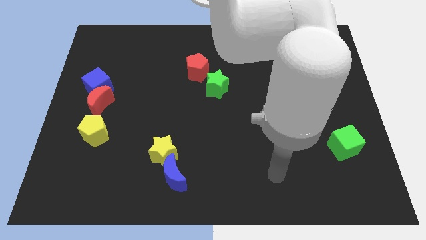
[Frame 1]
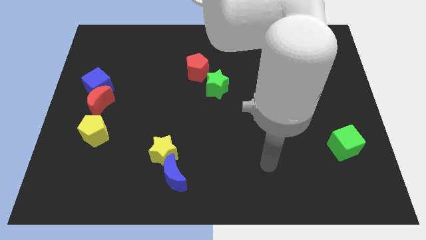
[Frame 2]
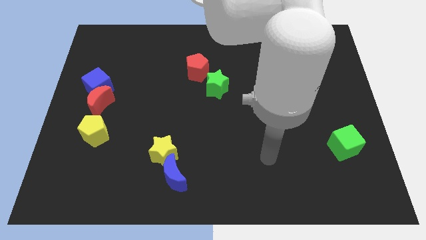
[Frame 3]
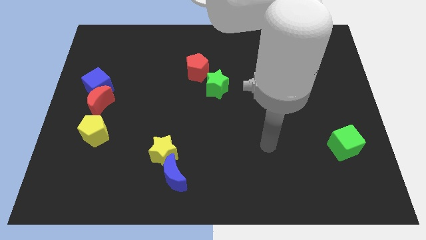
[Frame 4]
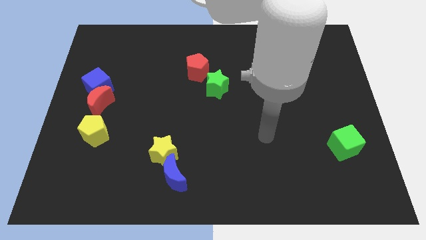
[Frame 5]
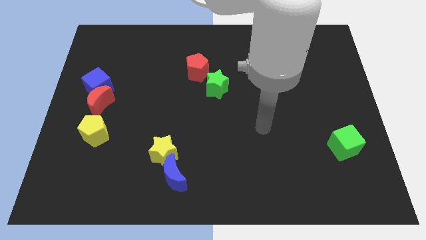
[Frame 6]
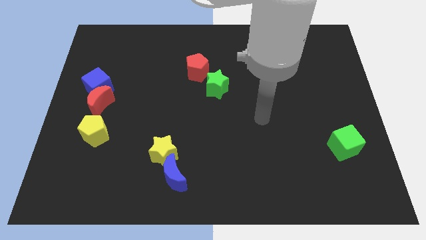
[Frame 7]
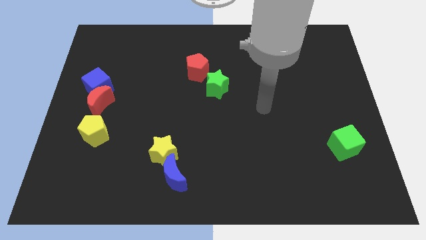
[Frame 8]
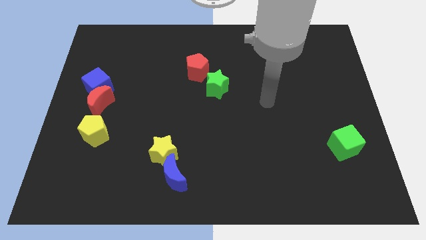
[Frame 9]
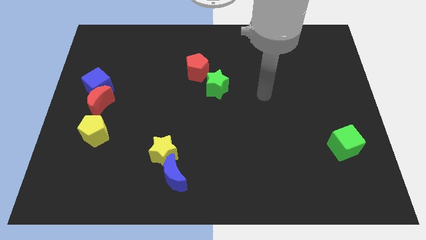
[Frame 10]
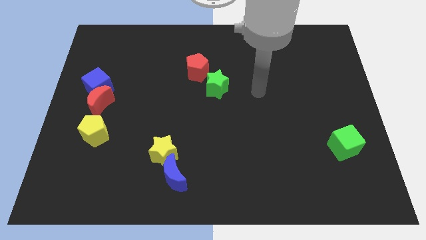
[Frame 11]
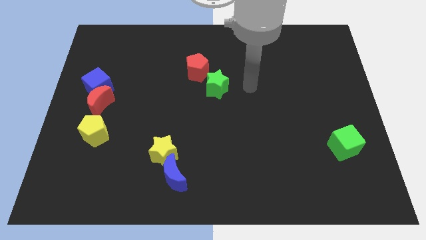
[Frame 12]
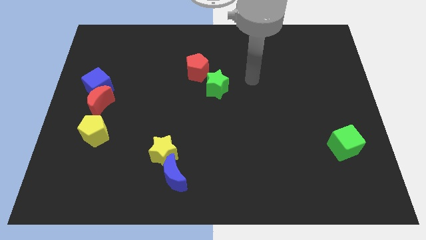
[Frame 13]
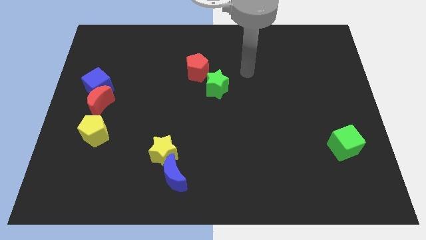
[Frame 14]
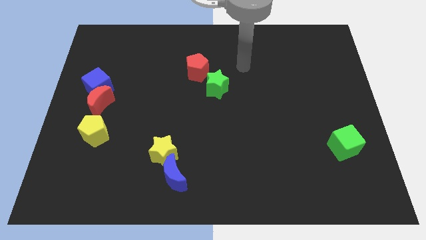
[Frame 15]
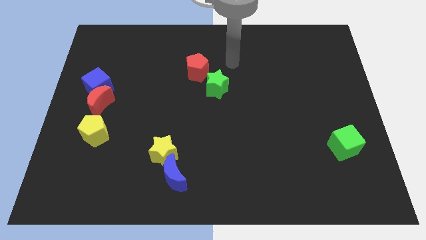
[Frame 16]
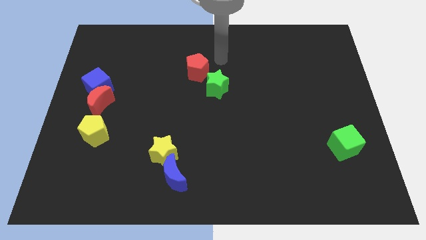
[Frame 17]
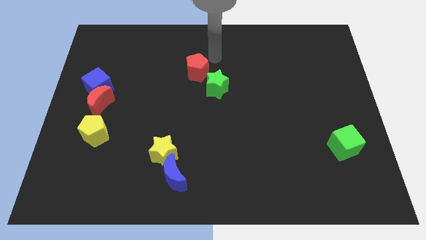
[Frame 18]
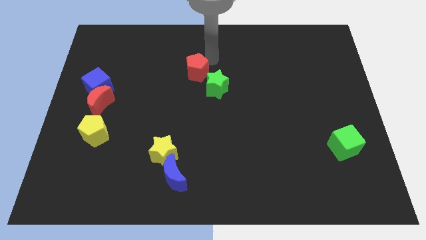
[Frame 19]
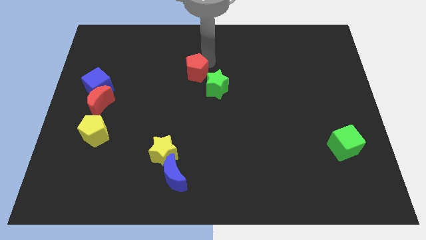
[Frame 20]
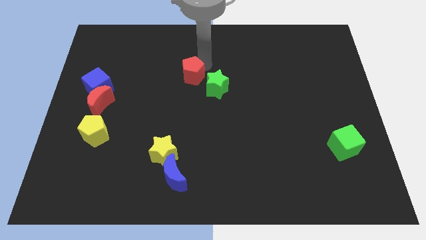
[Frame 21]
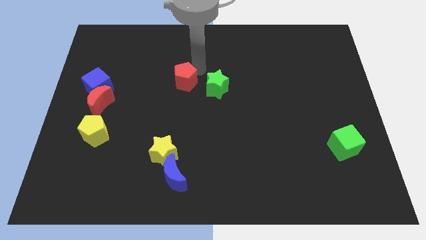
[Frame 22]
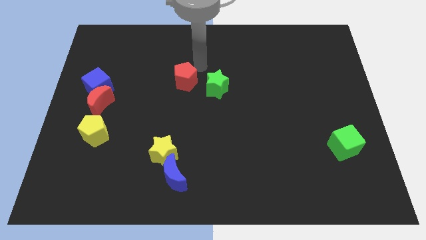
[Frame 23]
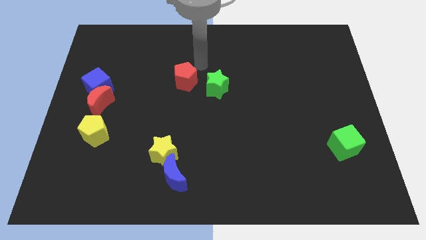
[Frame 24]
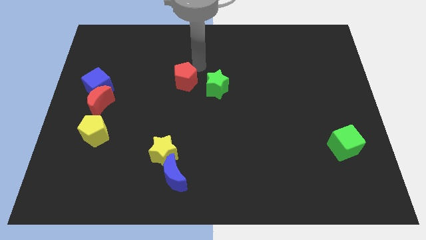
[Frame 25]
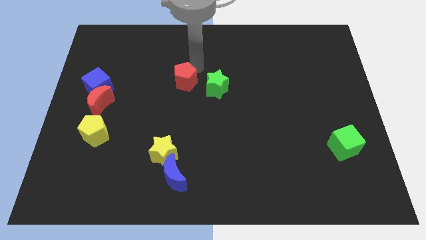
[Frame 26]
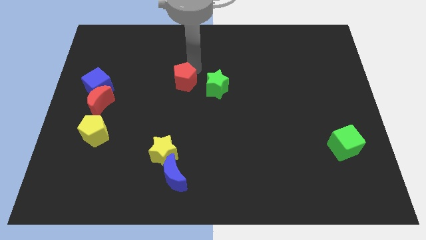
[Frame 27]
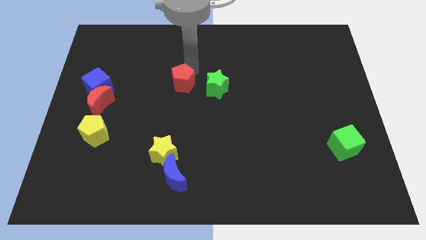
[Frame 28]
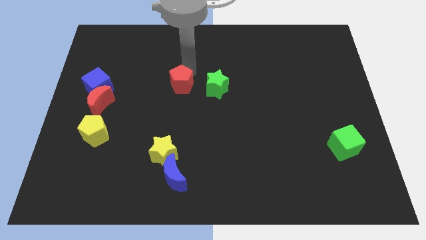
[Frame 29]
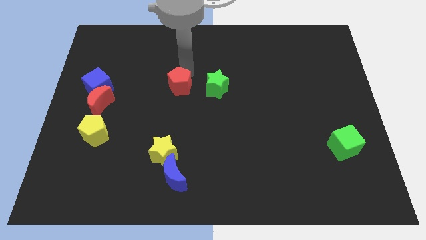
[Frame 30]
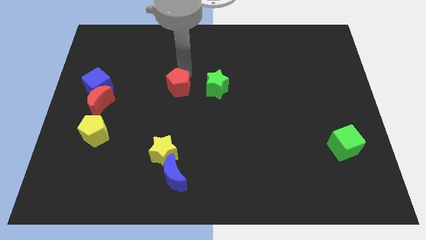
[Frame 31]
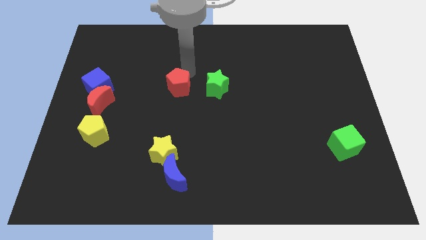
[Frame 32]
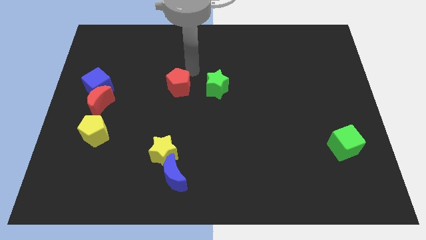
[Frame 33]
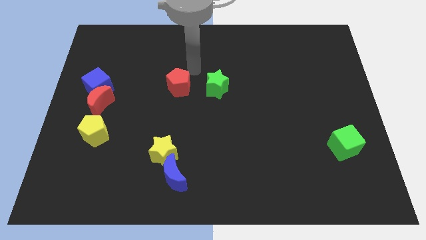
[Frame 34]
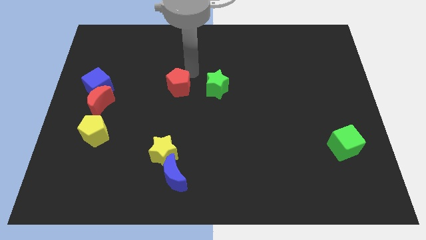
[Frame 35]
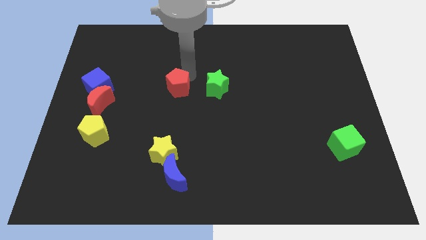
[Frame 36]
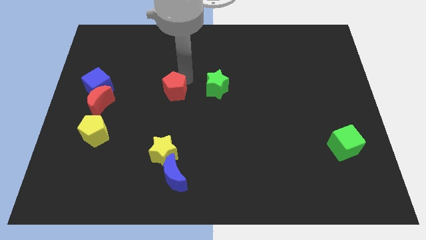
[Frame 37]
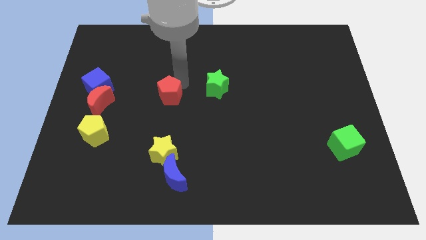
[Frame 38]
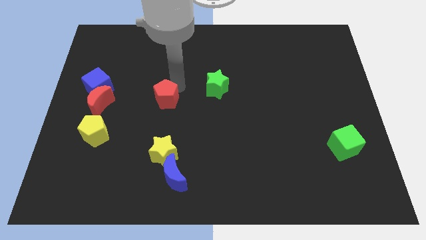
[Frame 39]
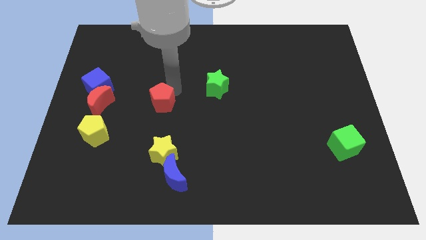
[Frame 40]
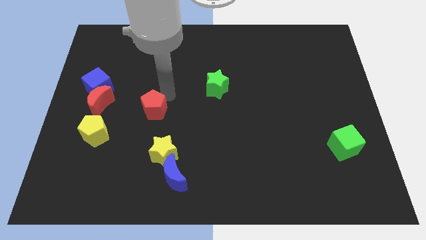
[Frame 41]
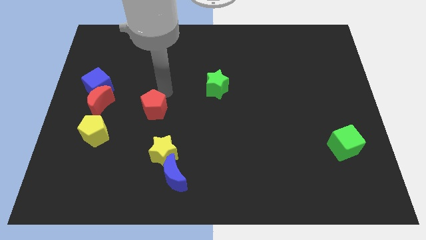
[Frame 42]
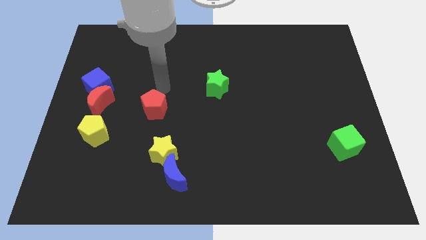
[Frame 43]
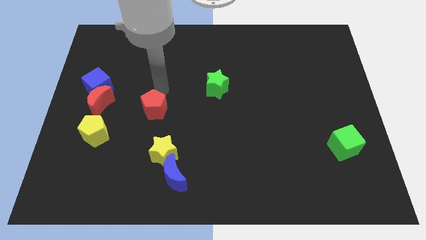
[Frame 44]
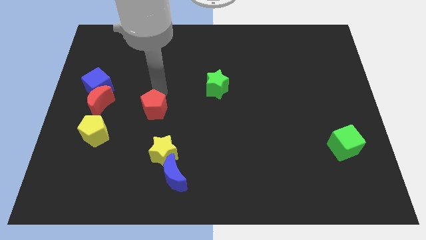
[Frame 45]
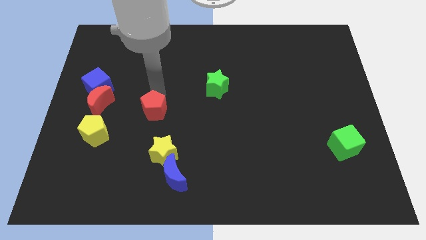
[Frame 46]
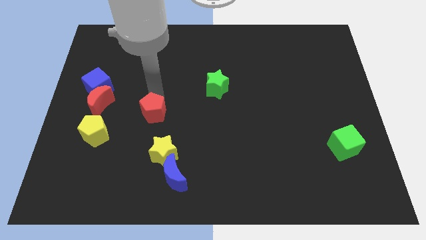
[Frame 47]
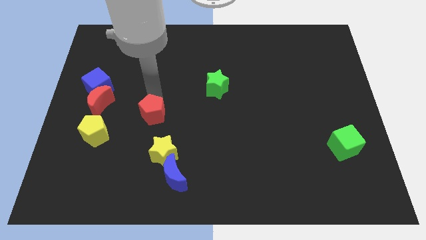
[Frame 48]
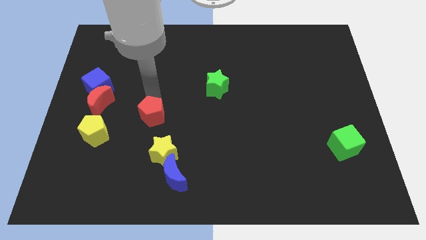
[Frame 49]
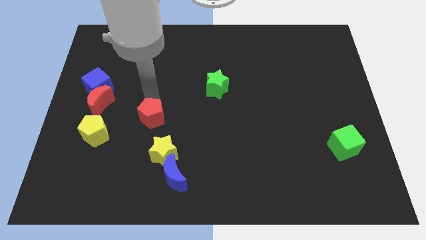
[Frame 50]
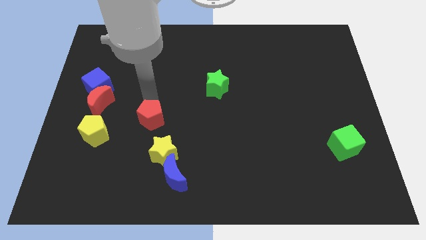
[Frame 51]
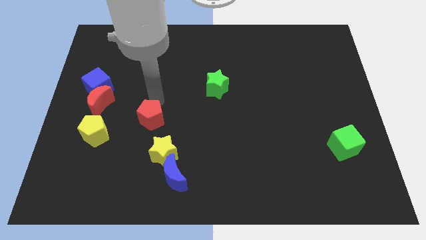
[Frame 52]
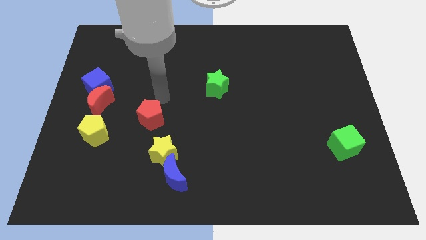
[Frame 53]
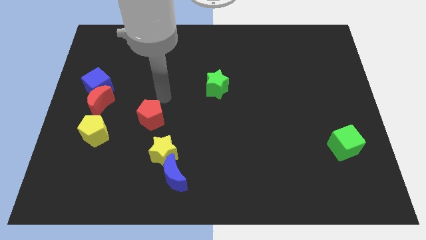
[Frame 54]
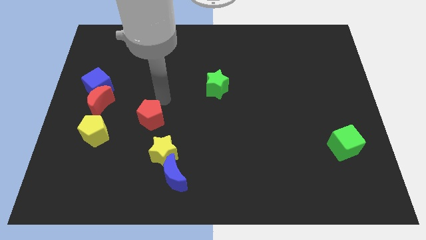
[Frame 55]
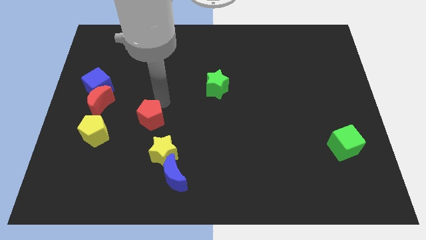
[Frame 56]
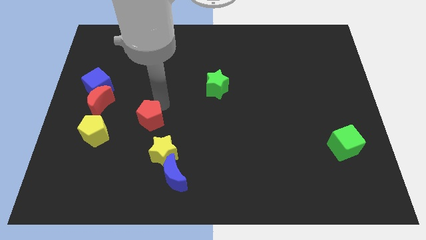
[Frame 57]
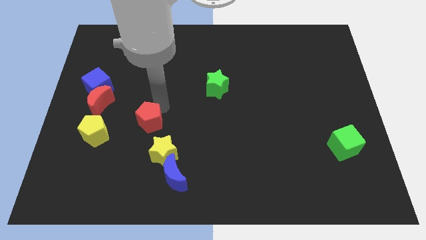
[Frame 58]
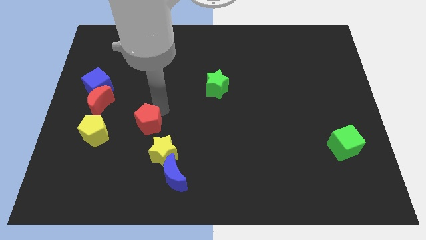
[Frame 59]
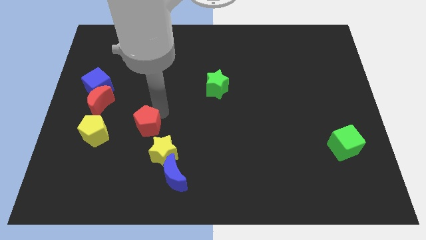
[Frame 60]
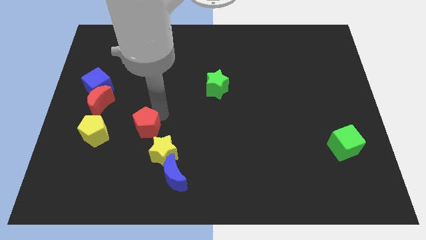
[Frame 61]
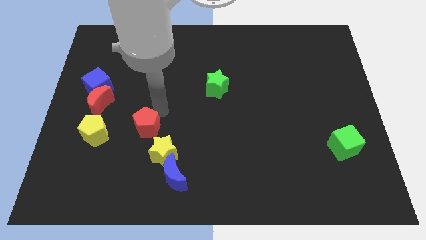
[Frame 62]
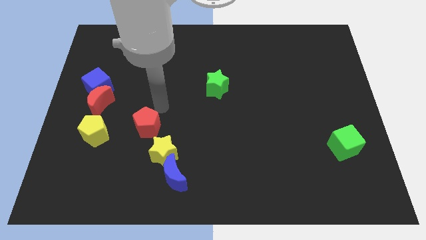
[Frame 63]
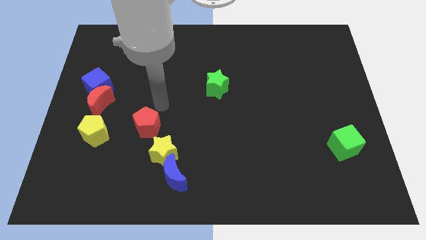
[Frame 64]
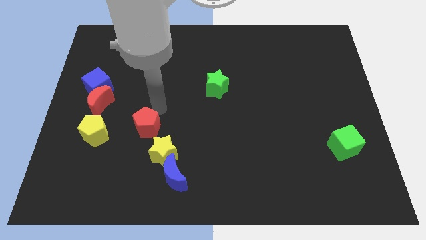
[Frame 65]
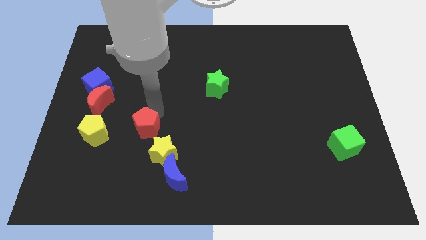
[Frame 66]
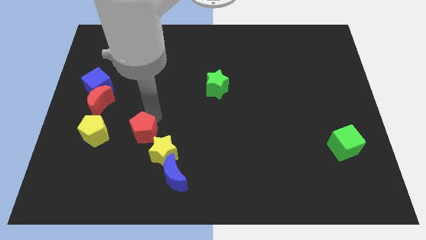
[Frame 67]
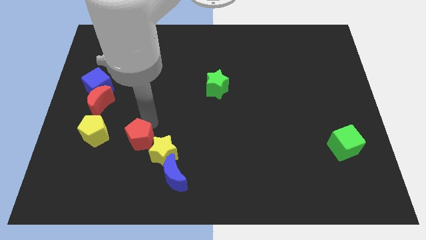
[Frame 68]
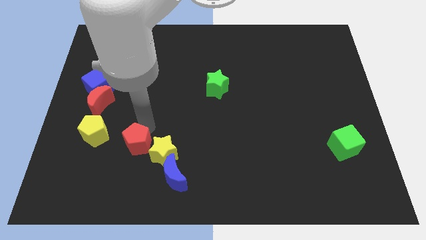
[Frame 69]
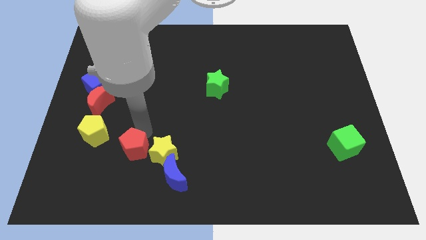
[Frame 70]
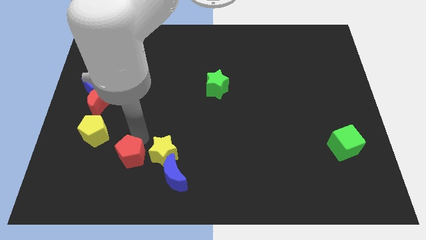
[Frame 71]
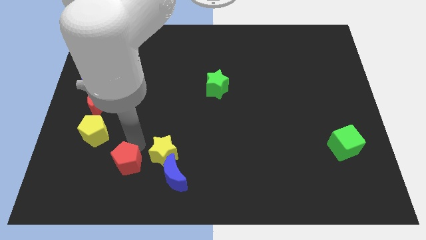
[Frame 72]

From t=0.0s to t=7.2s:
put the red pentagon just left of the blue moon
